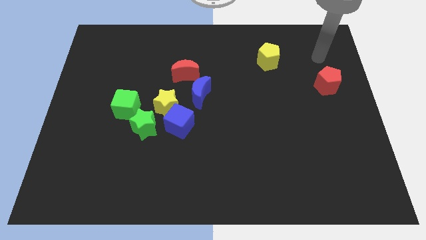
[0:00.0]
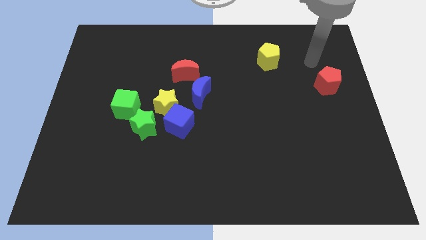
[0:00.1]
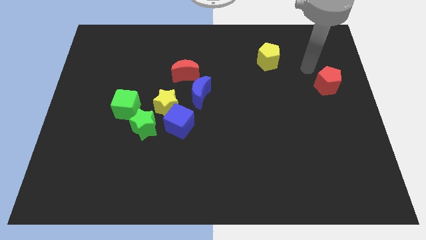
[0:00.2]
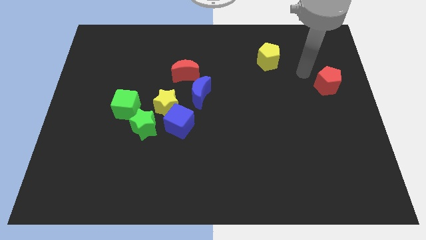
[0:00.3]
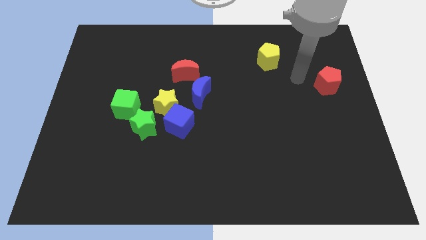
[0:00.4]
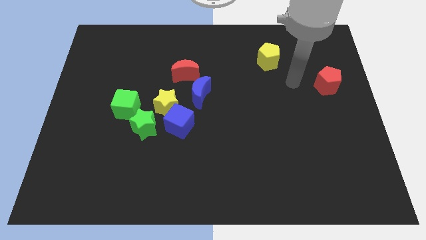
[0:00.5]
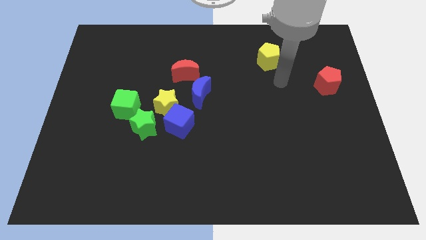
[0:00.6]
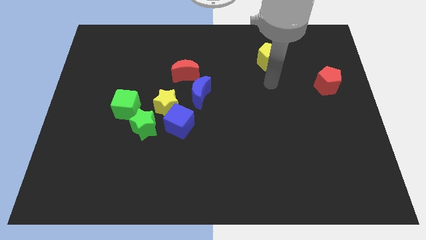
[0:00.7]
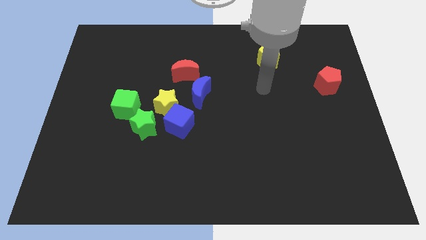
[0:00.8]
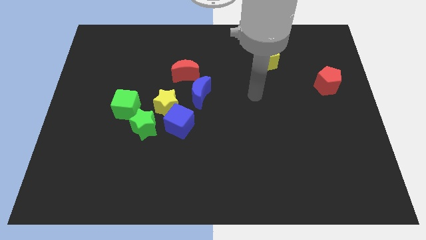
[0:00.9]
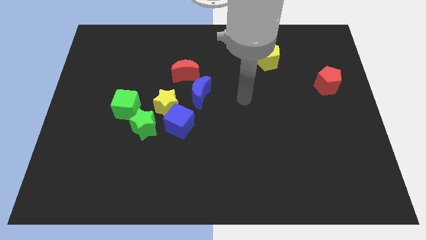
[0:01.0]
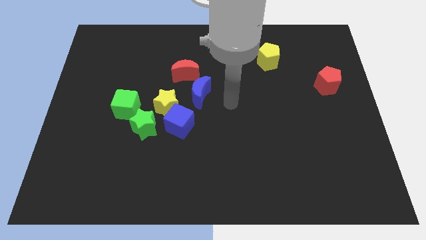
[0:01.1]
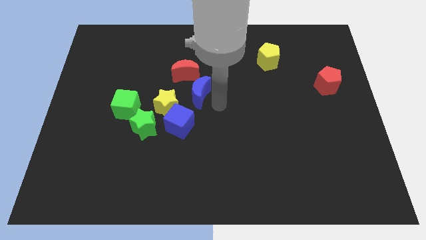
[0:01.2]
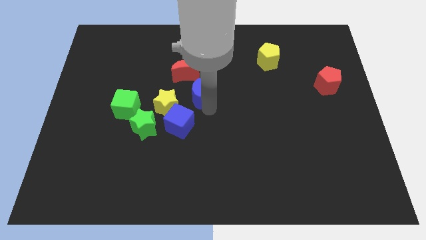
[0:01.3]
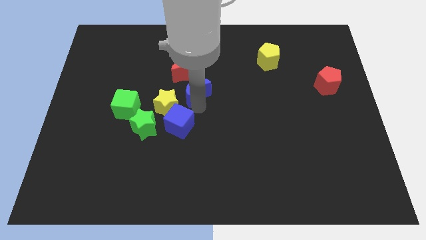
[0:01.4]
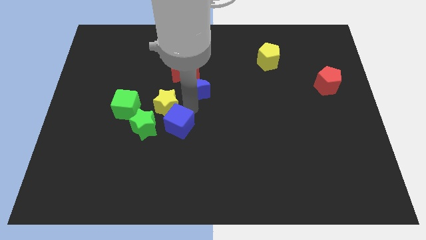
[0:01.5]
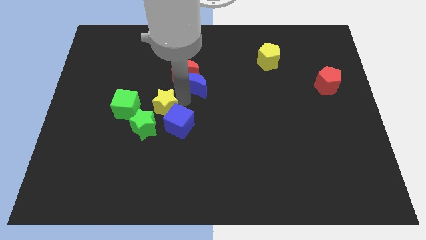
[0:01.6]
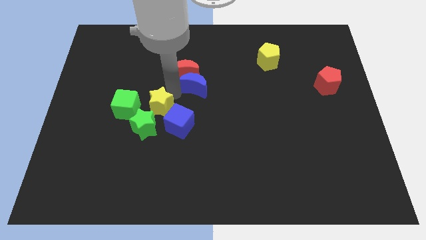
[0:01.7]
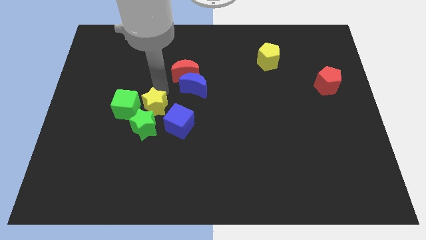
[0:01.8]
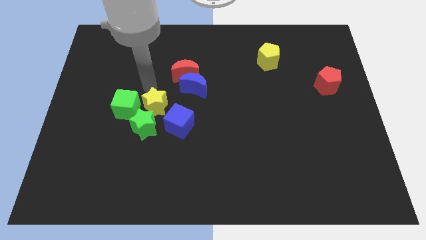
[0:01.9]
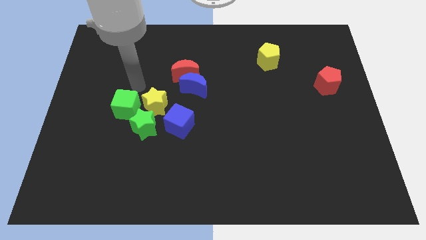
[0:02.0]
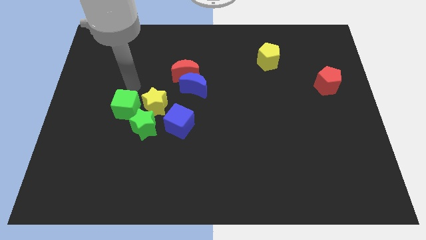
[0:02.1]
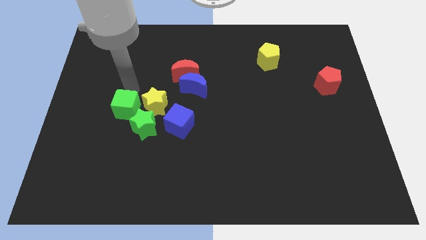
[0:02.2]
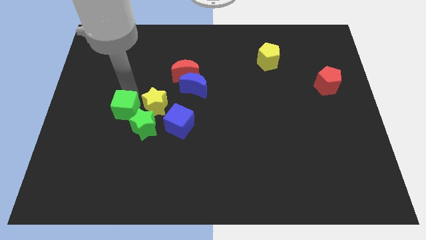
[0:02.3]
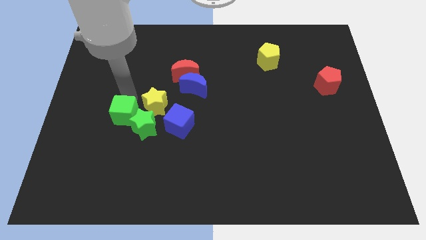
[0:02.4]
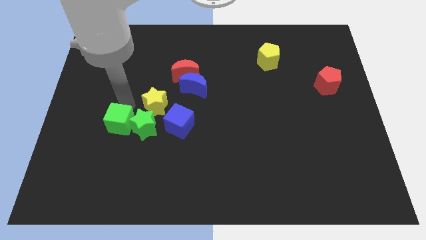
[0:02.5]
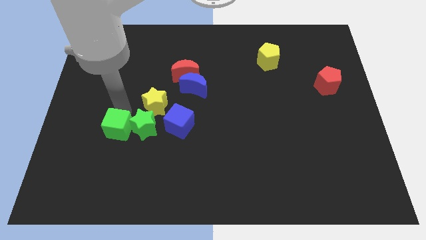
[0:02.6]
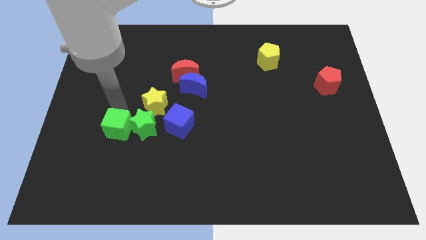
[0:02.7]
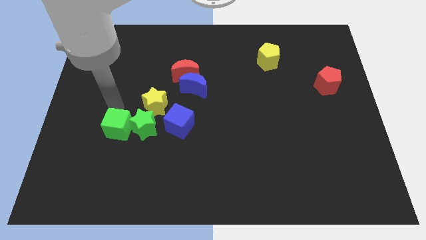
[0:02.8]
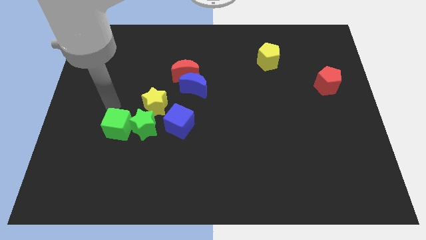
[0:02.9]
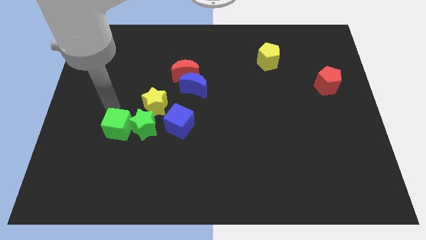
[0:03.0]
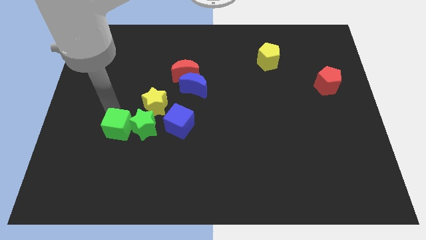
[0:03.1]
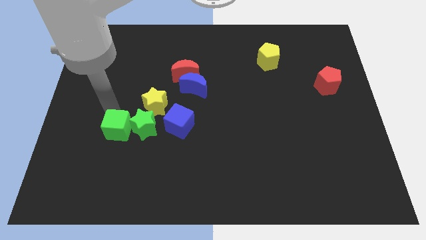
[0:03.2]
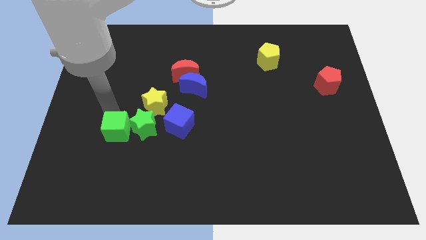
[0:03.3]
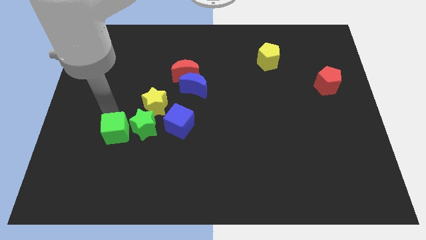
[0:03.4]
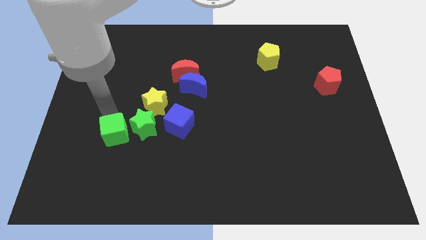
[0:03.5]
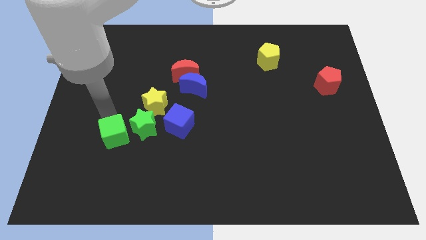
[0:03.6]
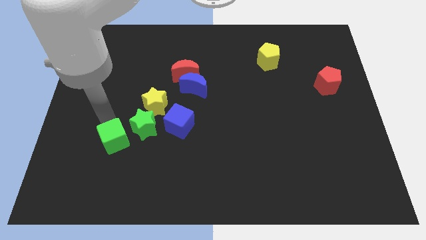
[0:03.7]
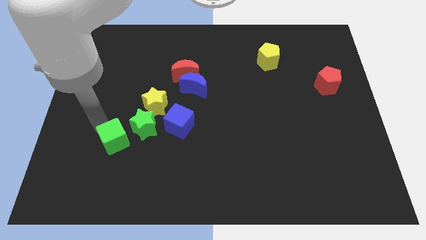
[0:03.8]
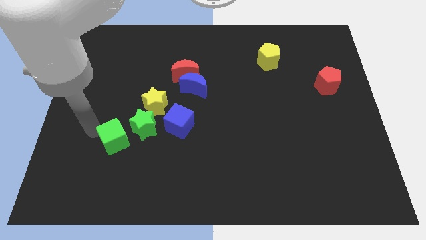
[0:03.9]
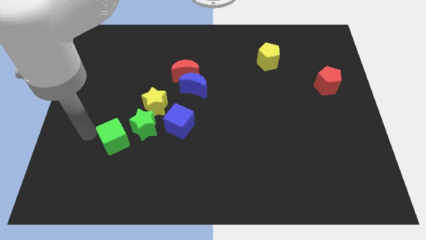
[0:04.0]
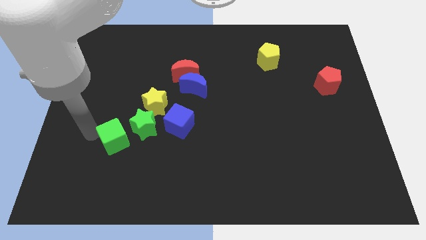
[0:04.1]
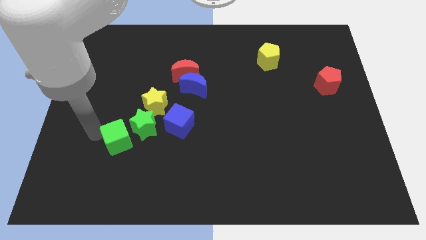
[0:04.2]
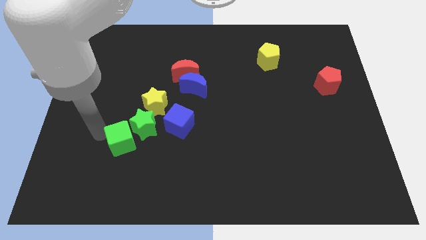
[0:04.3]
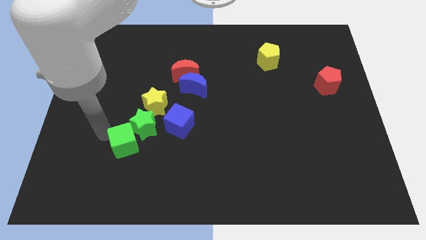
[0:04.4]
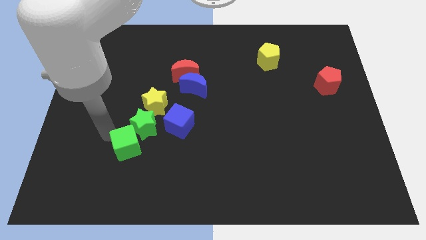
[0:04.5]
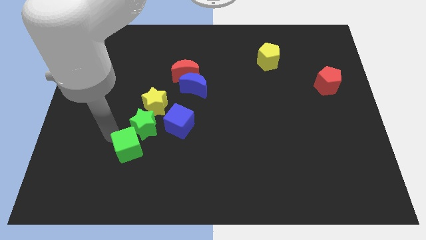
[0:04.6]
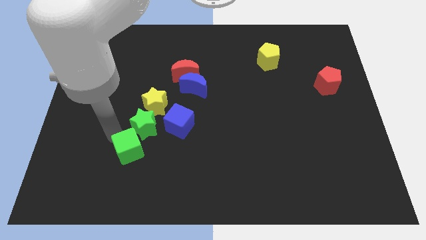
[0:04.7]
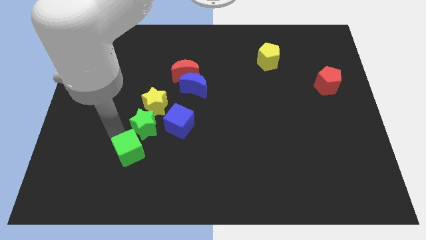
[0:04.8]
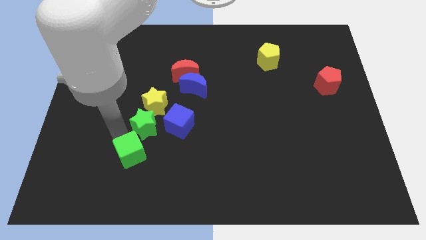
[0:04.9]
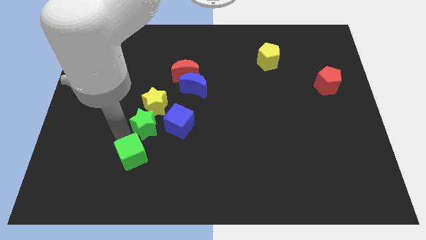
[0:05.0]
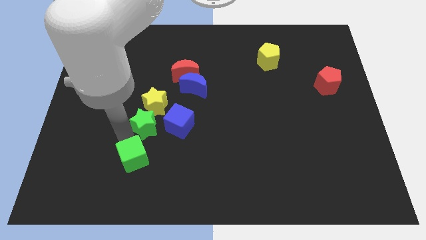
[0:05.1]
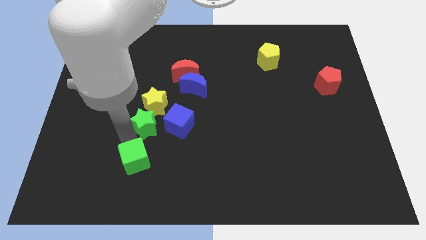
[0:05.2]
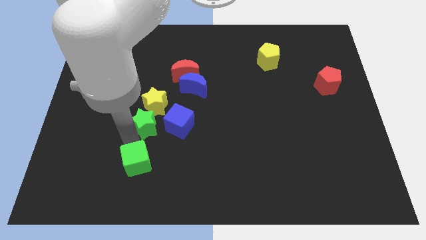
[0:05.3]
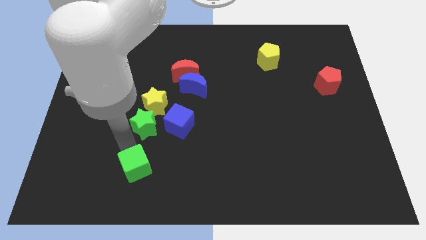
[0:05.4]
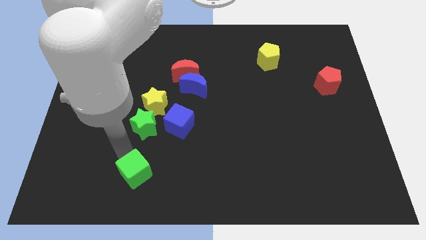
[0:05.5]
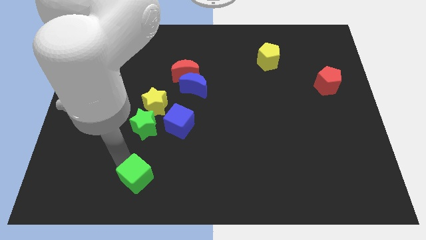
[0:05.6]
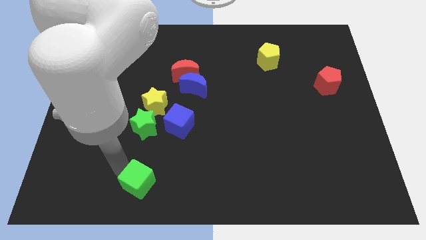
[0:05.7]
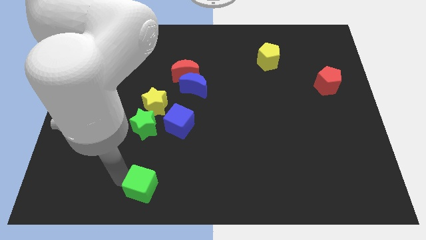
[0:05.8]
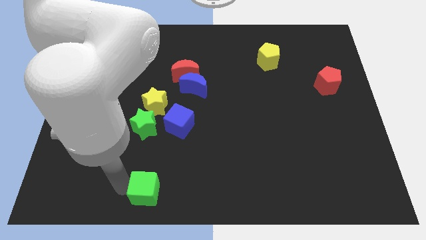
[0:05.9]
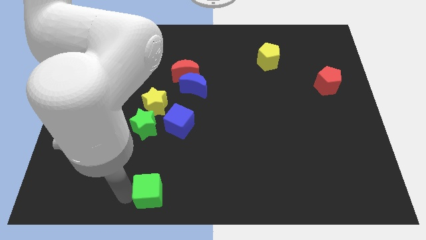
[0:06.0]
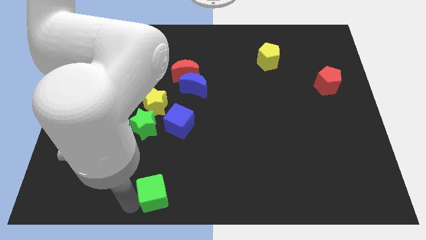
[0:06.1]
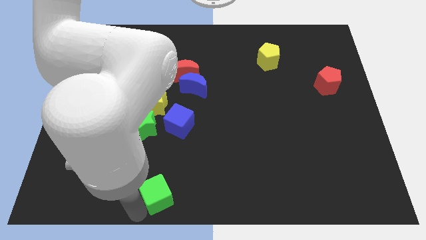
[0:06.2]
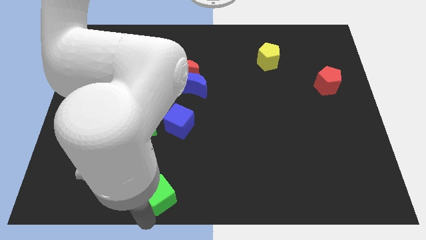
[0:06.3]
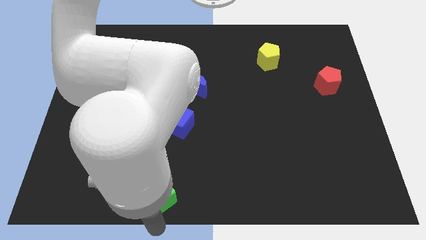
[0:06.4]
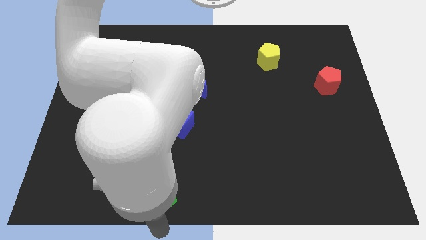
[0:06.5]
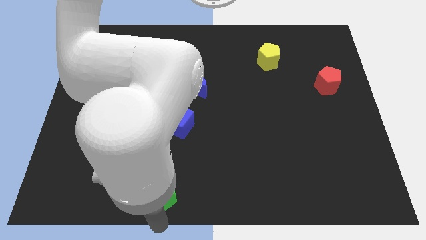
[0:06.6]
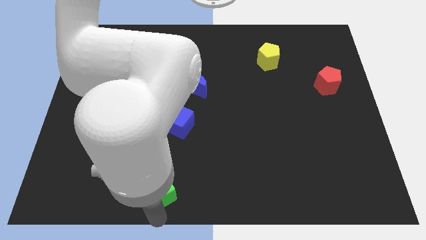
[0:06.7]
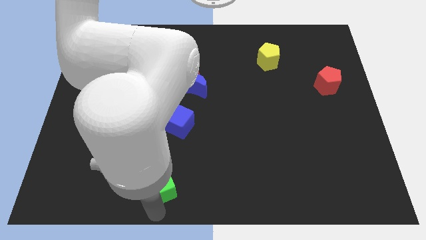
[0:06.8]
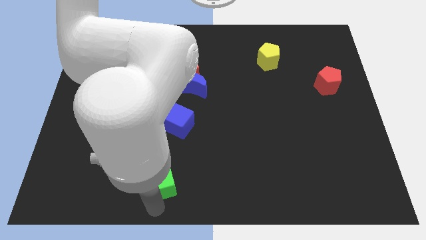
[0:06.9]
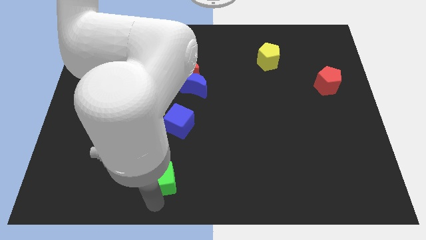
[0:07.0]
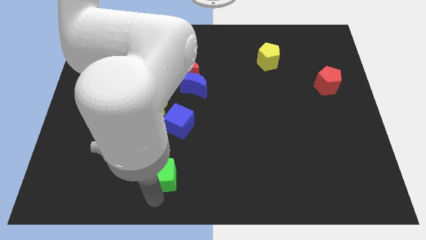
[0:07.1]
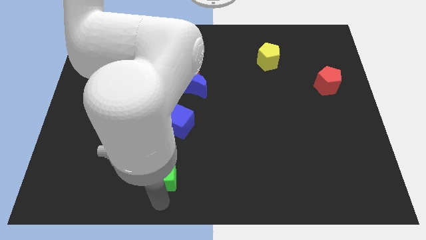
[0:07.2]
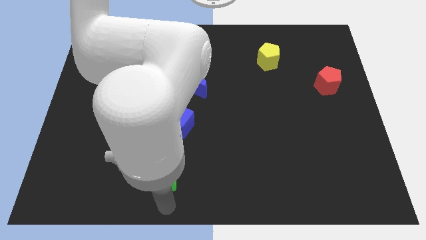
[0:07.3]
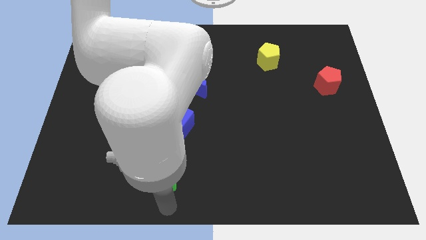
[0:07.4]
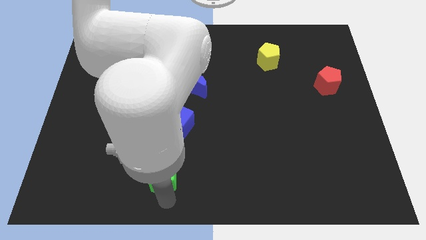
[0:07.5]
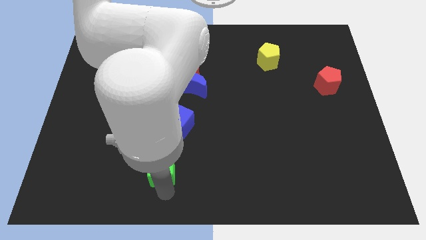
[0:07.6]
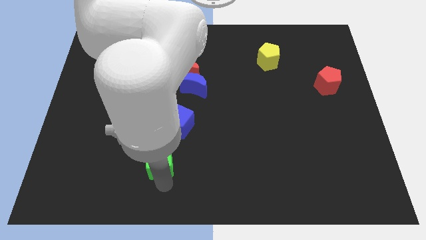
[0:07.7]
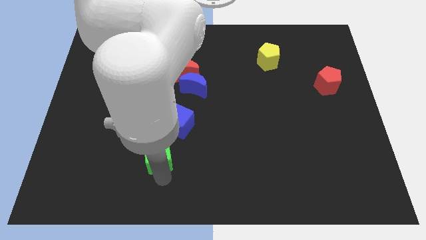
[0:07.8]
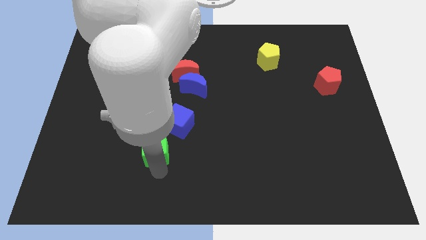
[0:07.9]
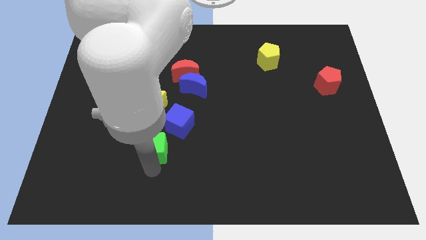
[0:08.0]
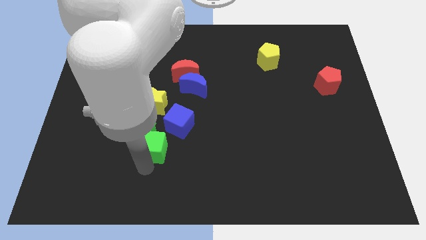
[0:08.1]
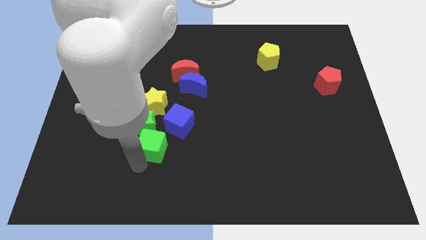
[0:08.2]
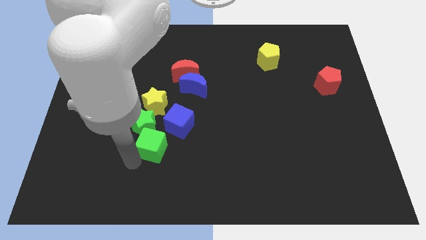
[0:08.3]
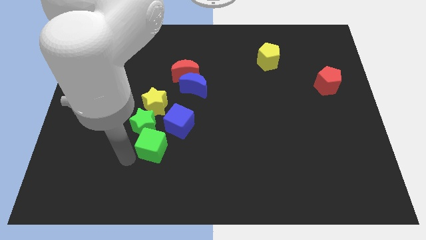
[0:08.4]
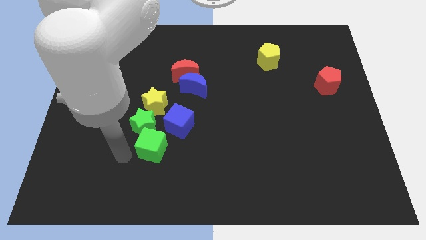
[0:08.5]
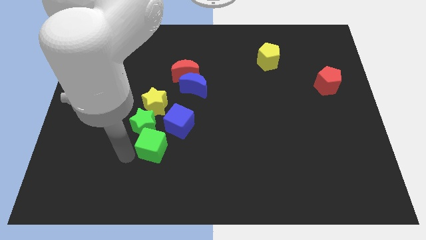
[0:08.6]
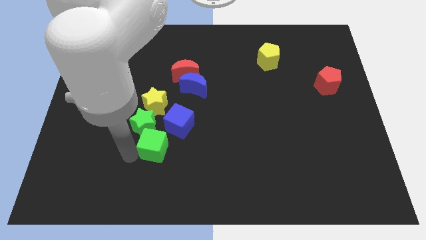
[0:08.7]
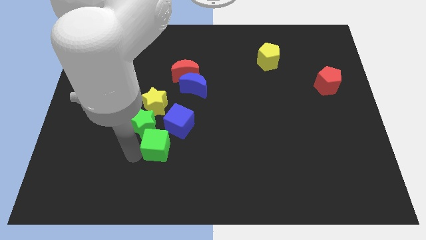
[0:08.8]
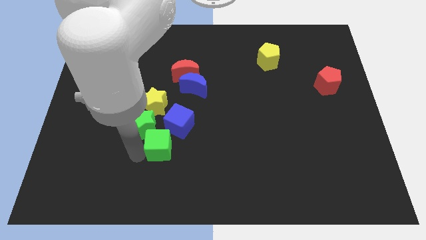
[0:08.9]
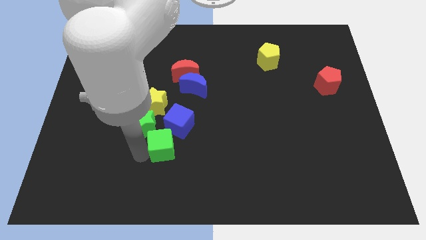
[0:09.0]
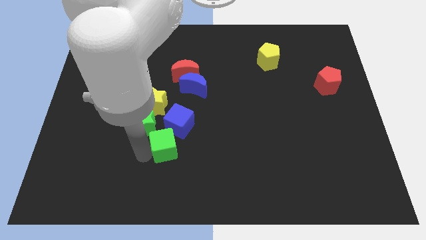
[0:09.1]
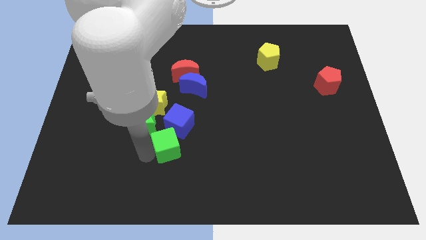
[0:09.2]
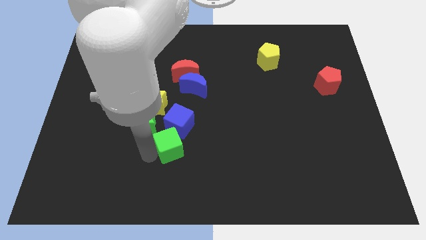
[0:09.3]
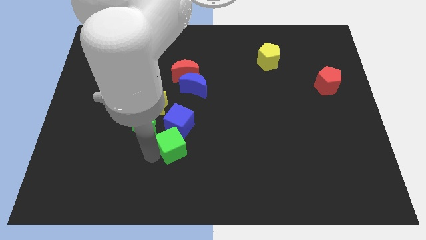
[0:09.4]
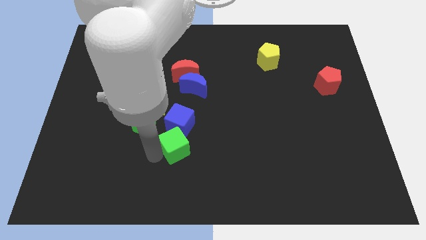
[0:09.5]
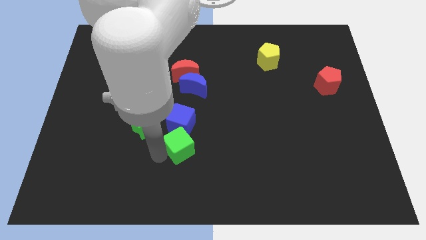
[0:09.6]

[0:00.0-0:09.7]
slide the green cube slightly right
